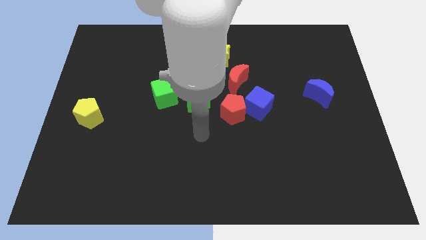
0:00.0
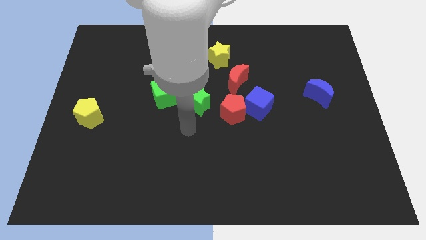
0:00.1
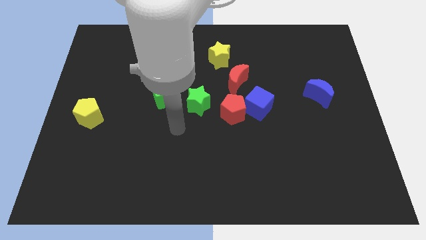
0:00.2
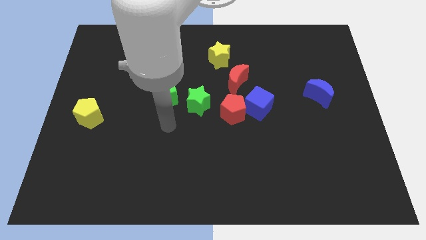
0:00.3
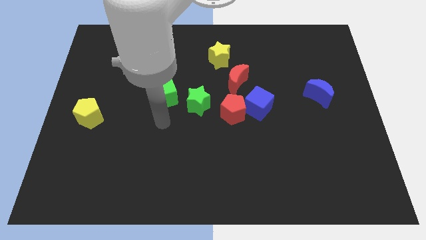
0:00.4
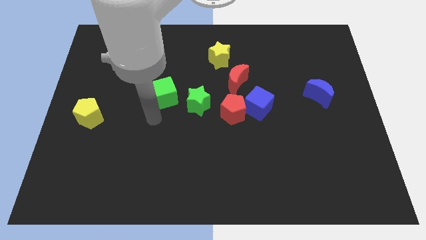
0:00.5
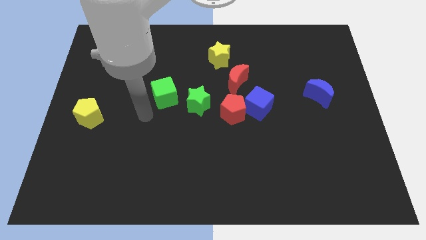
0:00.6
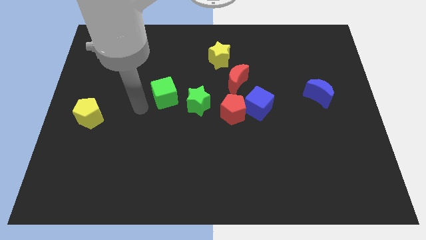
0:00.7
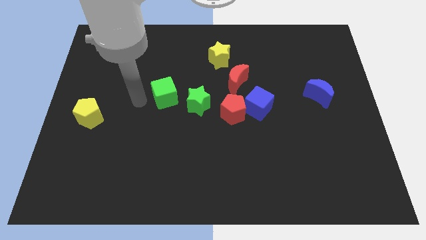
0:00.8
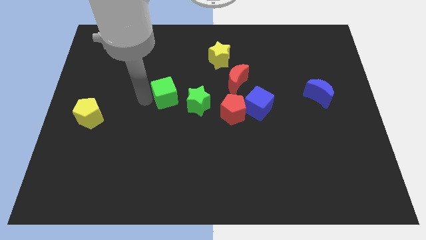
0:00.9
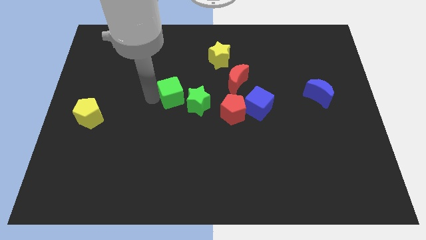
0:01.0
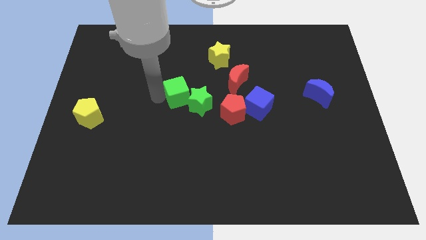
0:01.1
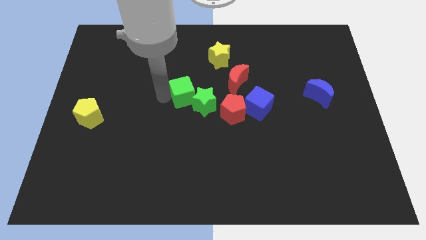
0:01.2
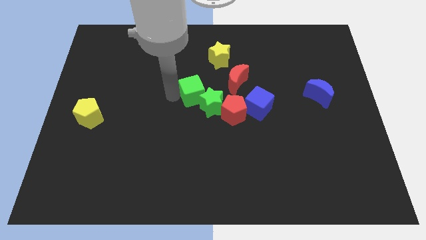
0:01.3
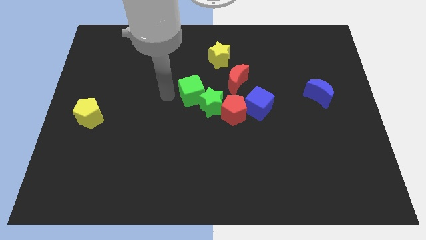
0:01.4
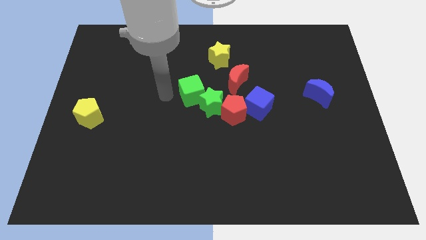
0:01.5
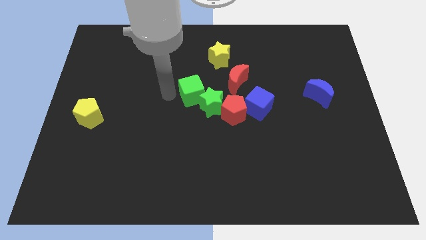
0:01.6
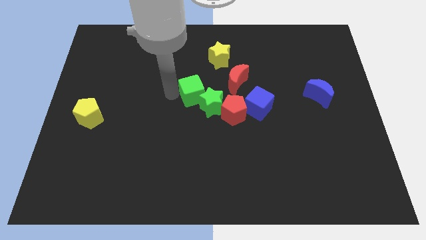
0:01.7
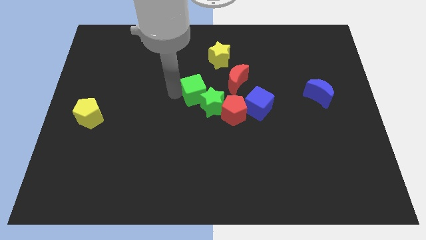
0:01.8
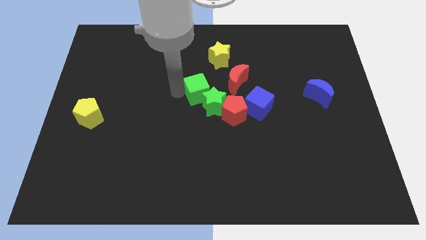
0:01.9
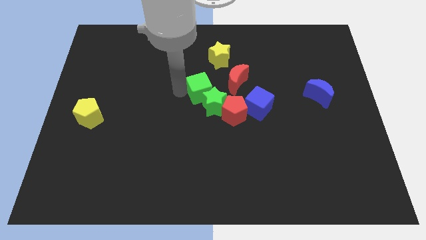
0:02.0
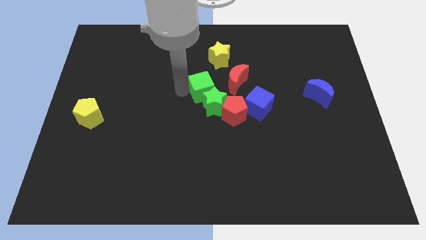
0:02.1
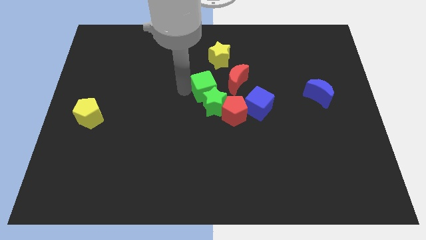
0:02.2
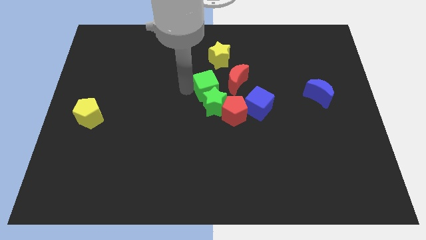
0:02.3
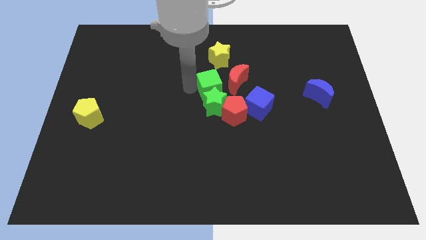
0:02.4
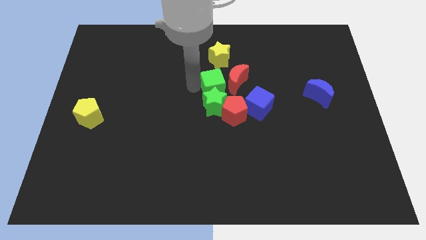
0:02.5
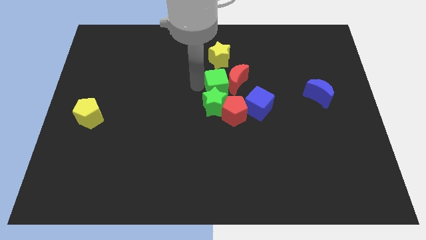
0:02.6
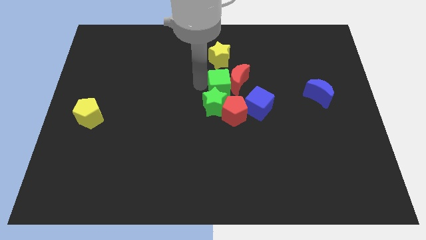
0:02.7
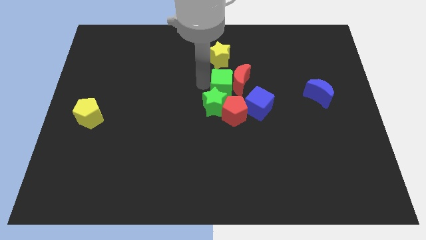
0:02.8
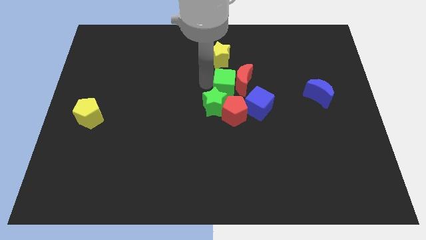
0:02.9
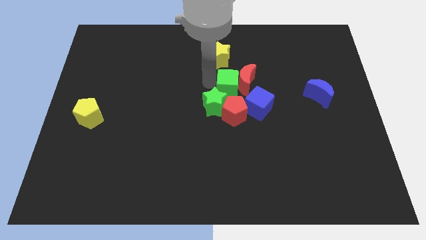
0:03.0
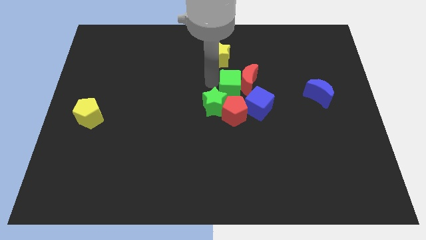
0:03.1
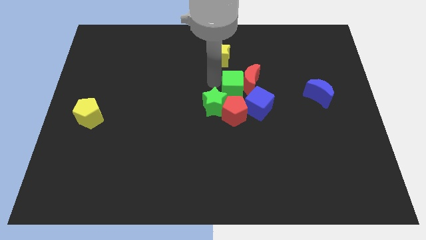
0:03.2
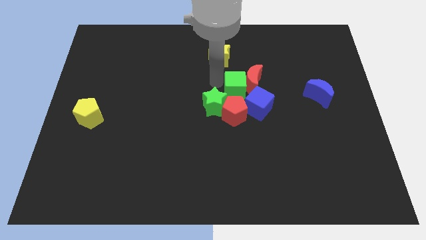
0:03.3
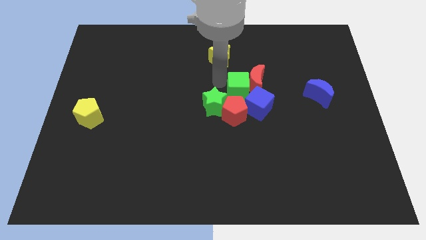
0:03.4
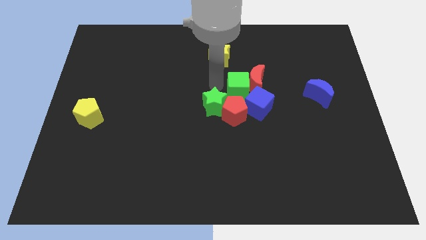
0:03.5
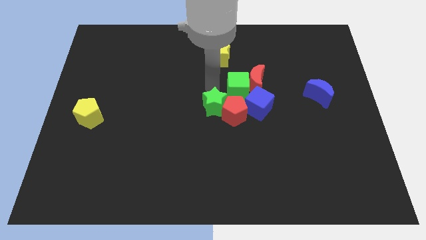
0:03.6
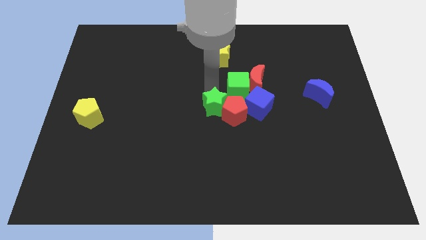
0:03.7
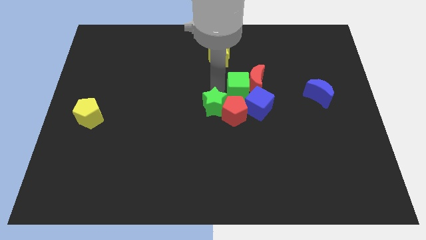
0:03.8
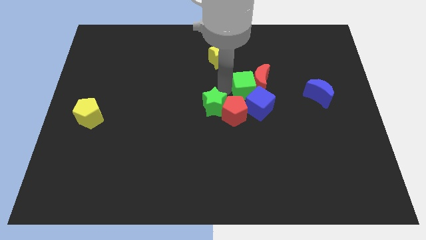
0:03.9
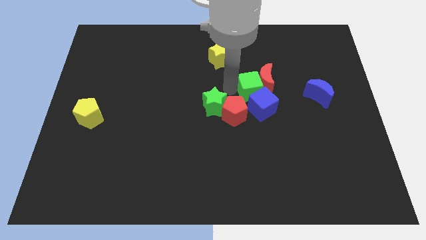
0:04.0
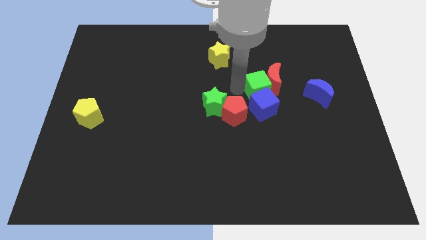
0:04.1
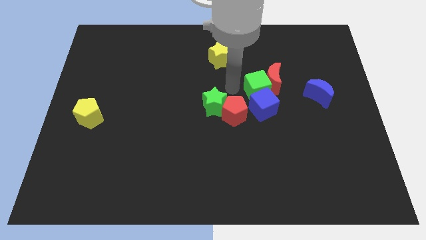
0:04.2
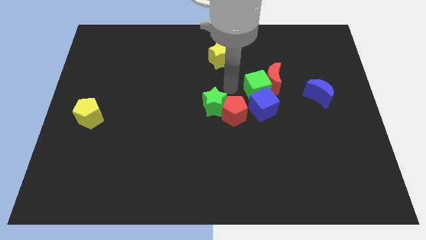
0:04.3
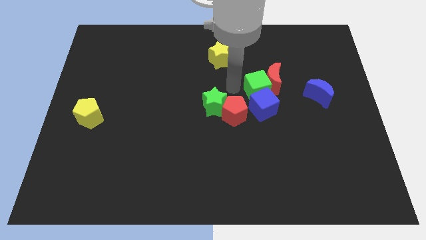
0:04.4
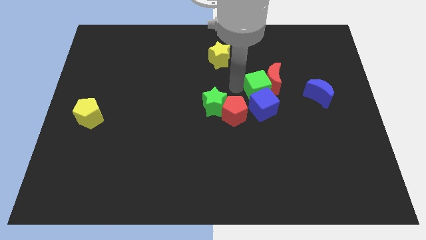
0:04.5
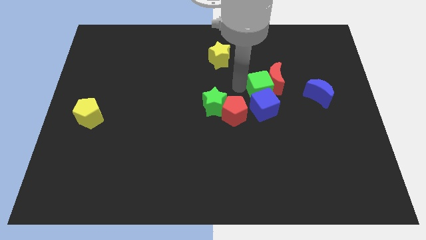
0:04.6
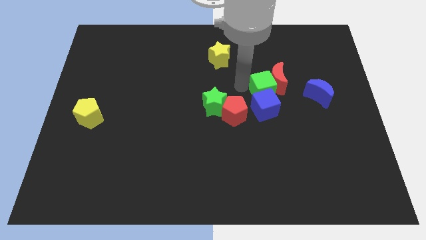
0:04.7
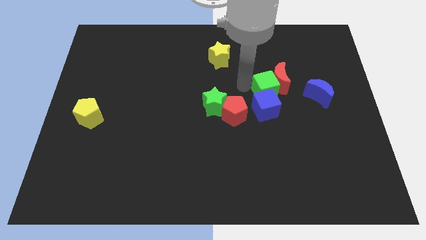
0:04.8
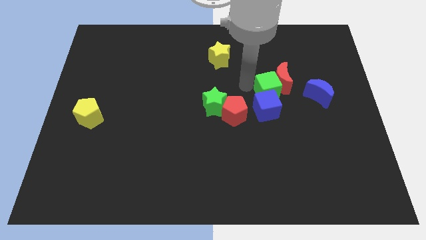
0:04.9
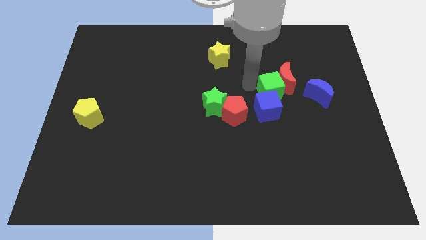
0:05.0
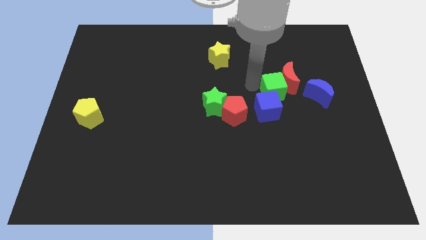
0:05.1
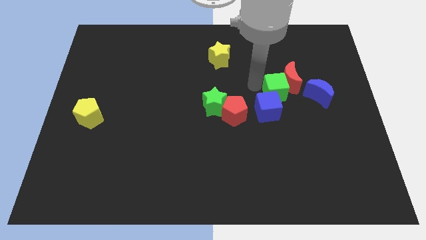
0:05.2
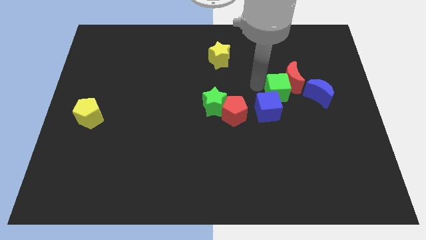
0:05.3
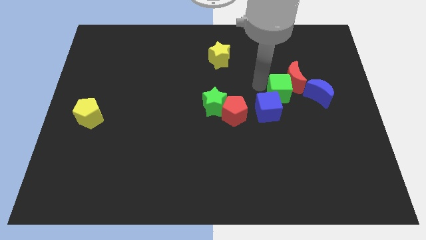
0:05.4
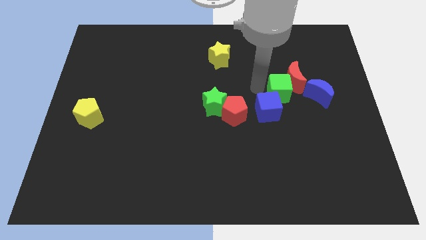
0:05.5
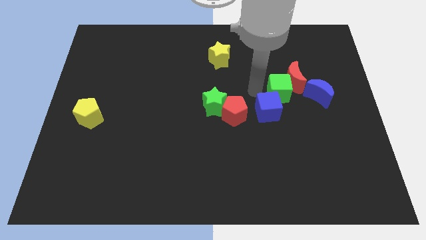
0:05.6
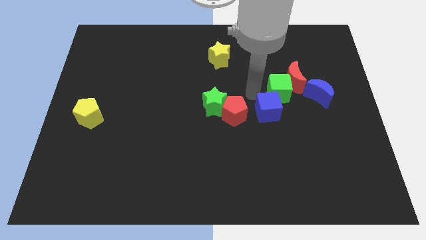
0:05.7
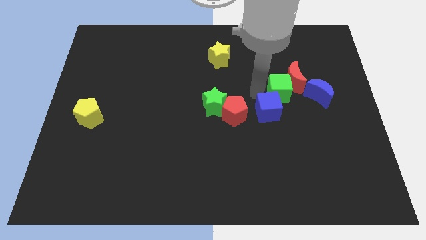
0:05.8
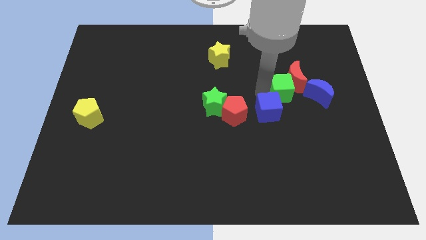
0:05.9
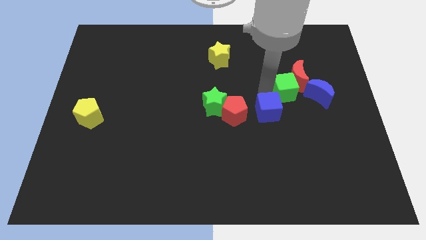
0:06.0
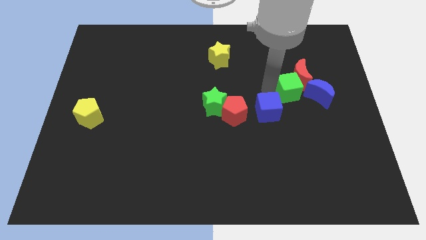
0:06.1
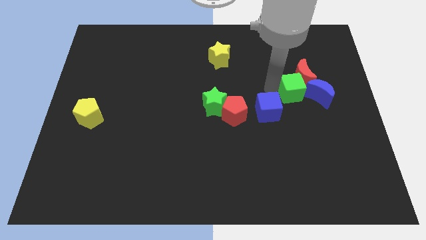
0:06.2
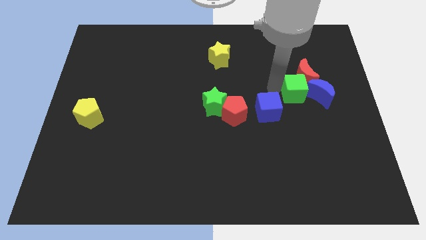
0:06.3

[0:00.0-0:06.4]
slide the green cube close to the blue moon

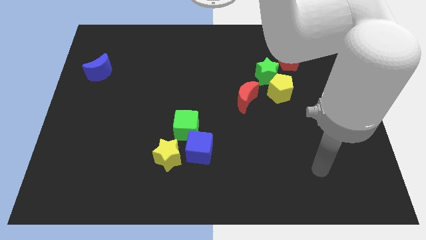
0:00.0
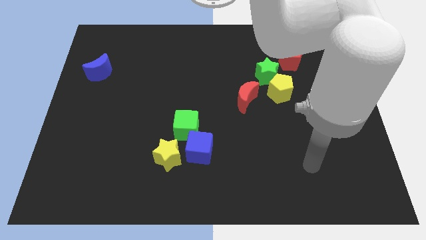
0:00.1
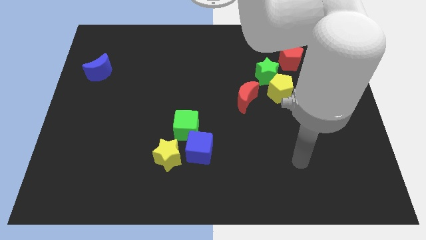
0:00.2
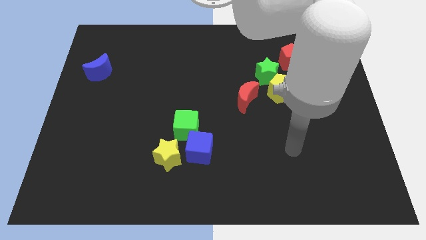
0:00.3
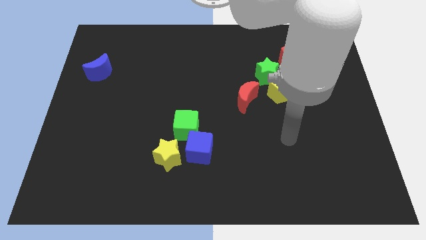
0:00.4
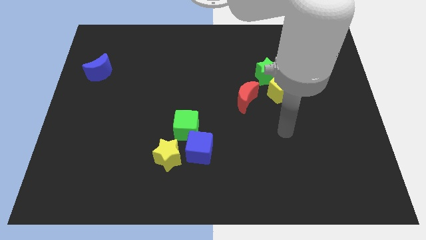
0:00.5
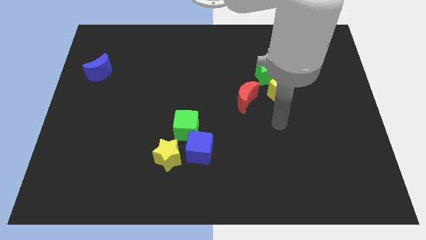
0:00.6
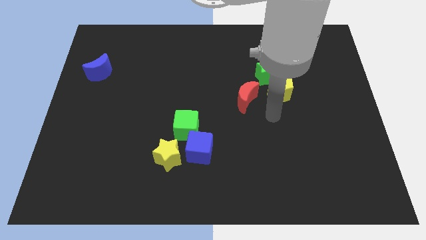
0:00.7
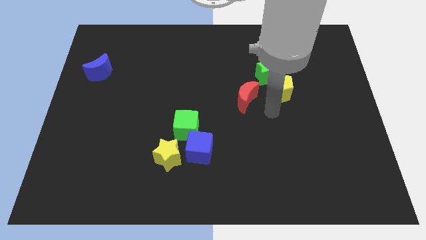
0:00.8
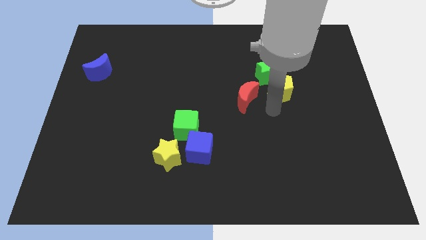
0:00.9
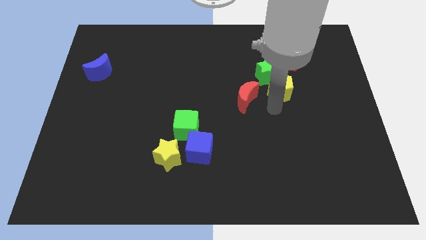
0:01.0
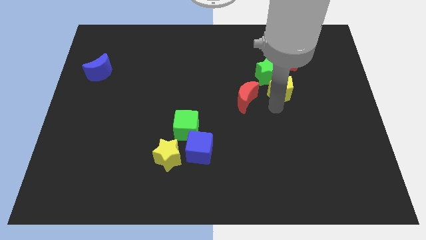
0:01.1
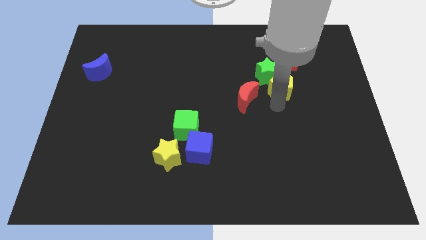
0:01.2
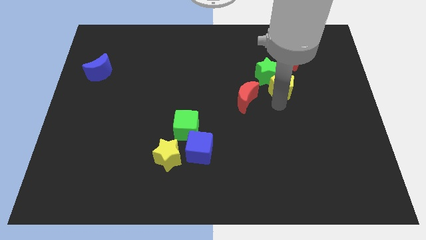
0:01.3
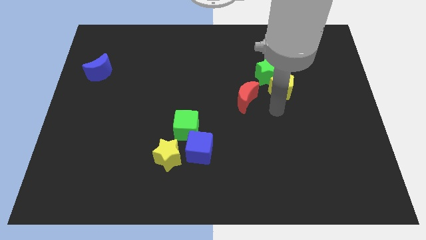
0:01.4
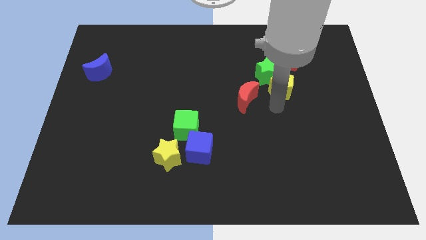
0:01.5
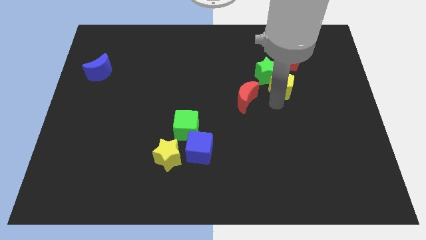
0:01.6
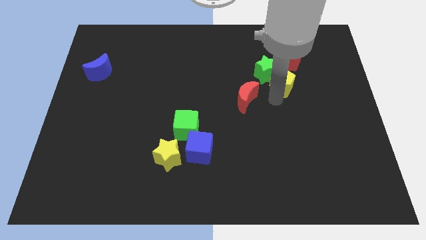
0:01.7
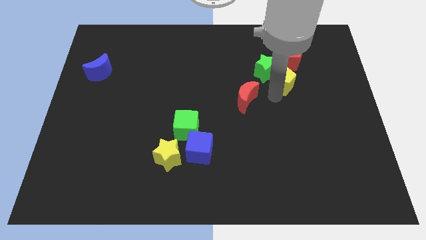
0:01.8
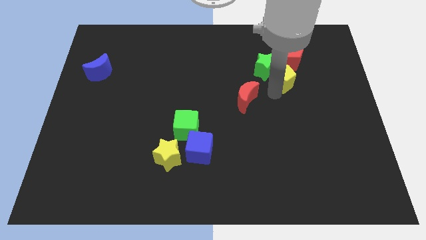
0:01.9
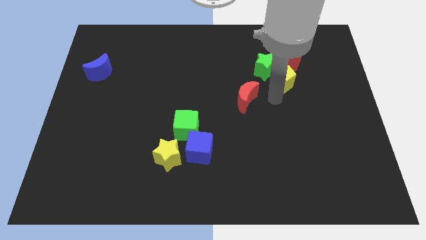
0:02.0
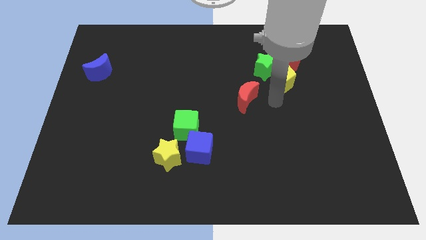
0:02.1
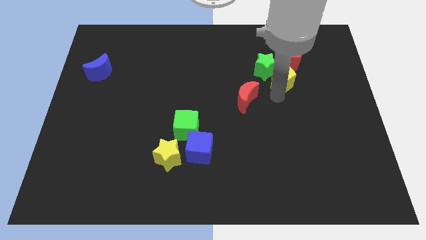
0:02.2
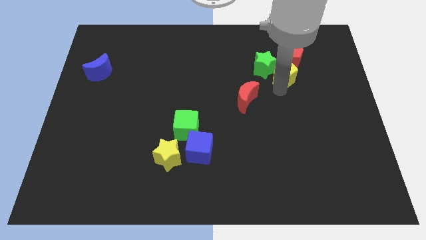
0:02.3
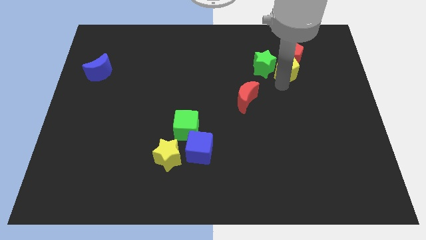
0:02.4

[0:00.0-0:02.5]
push the yellow pentagon next to the red pentagon
